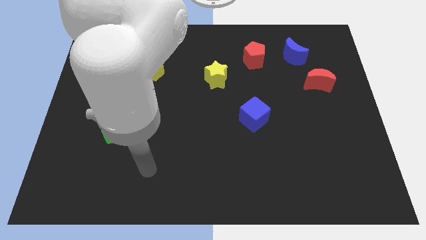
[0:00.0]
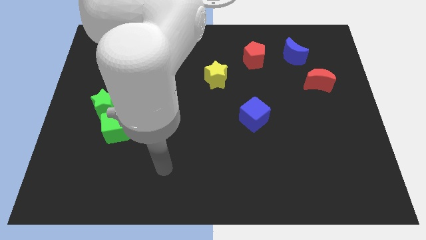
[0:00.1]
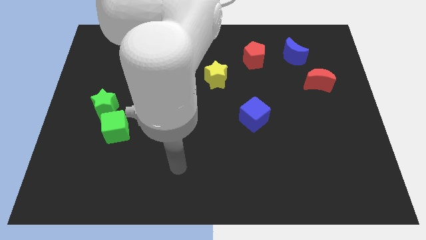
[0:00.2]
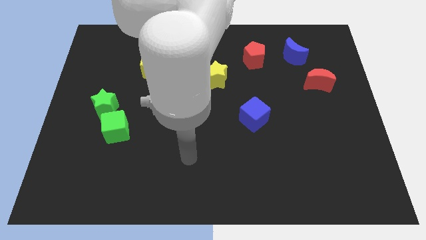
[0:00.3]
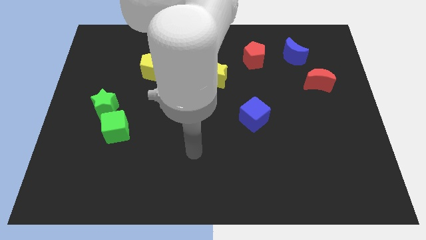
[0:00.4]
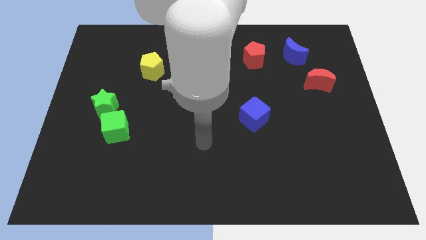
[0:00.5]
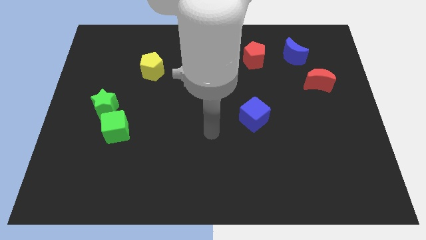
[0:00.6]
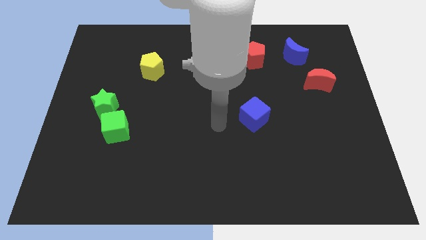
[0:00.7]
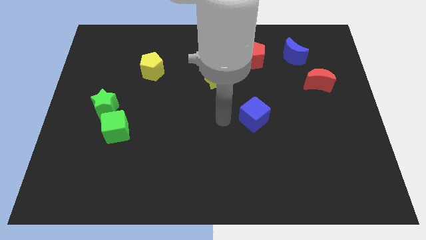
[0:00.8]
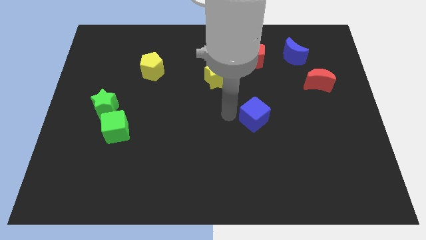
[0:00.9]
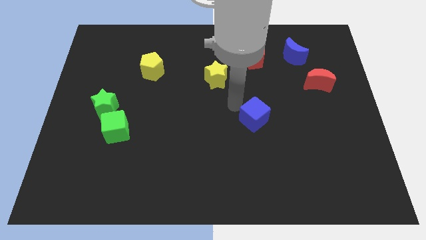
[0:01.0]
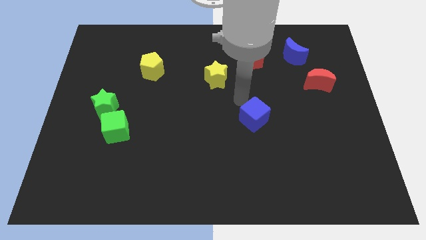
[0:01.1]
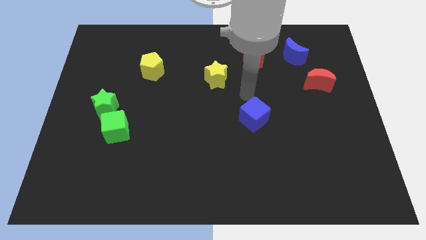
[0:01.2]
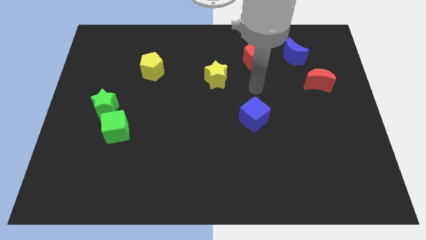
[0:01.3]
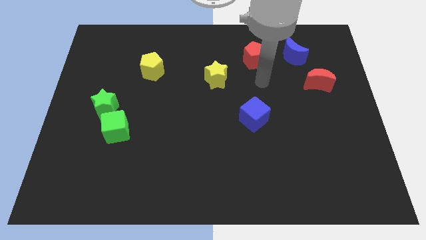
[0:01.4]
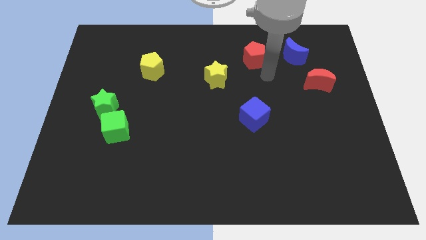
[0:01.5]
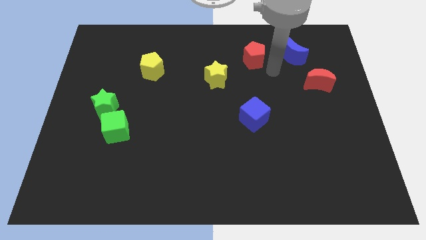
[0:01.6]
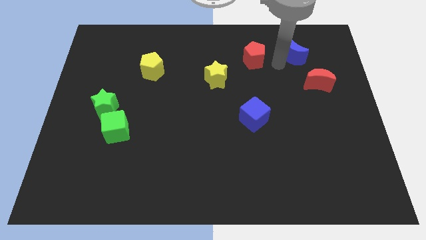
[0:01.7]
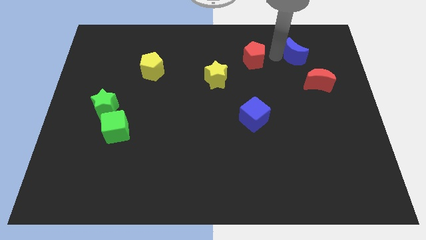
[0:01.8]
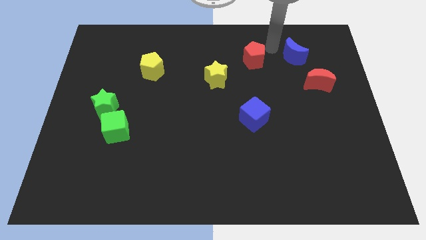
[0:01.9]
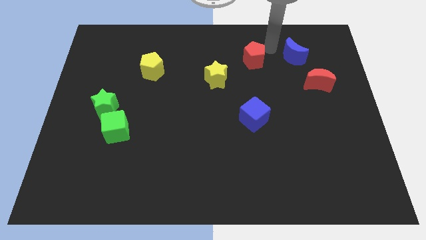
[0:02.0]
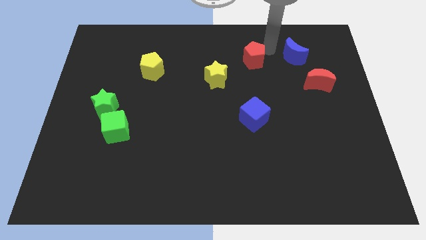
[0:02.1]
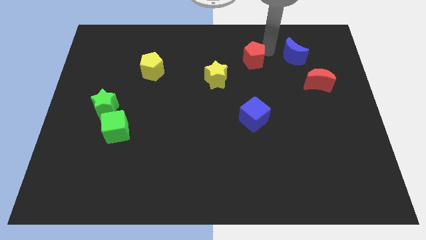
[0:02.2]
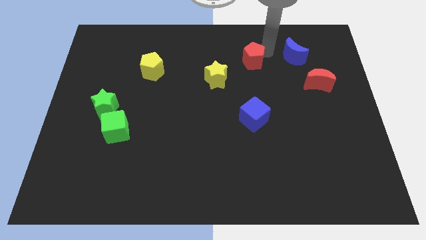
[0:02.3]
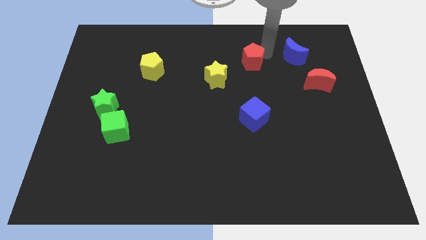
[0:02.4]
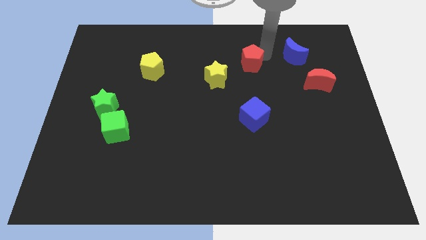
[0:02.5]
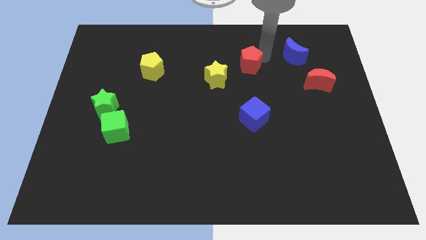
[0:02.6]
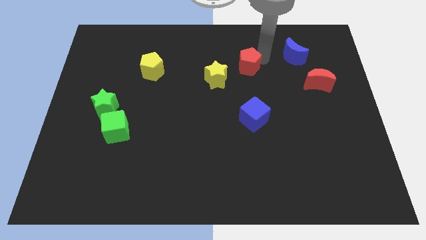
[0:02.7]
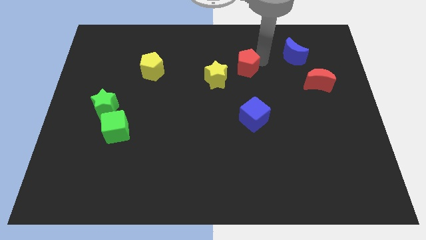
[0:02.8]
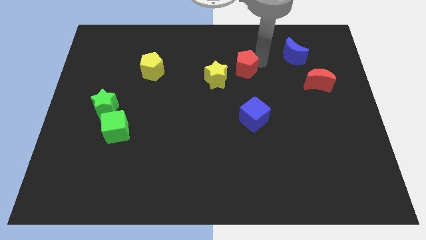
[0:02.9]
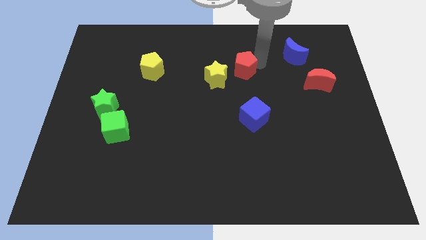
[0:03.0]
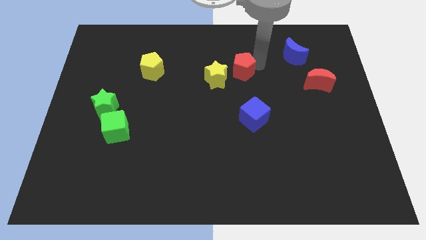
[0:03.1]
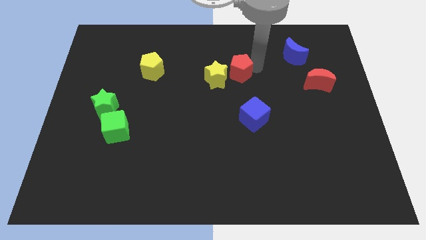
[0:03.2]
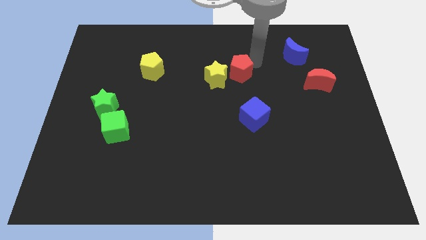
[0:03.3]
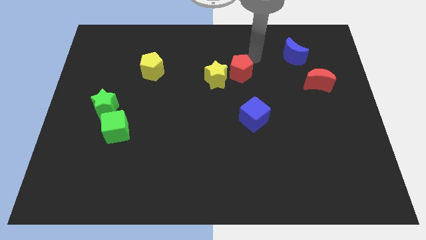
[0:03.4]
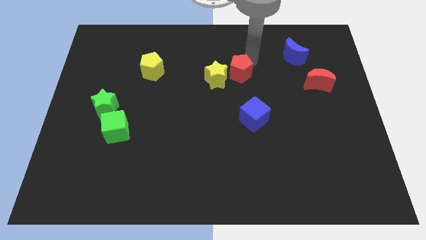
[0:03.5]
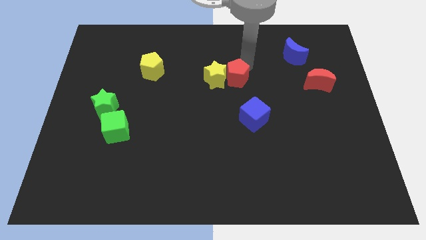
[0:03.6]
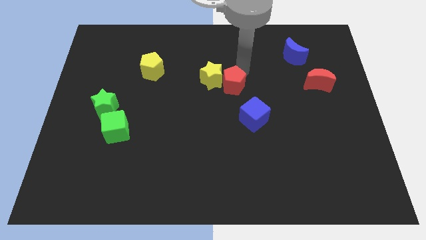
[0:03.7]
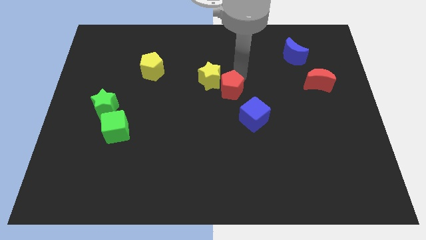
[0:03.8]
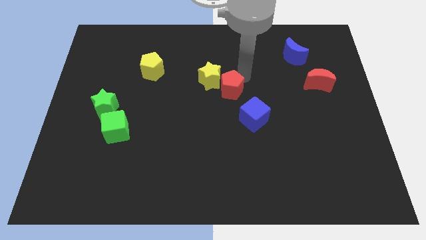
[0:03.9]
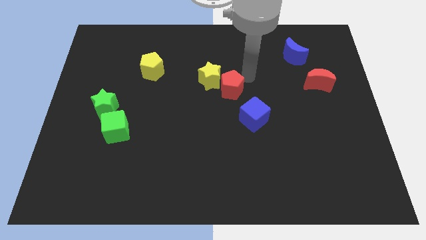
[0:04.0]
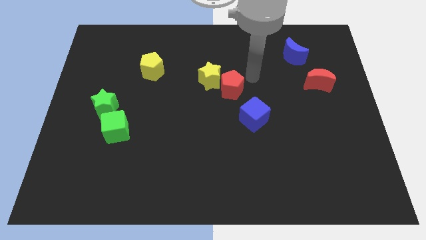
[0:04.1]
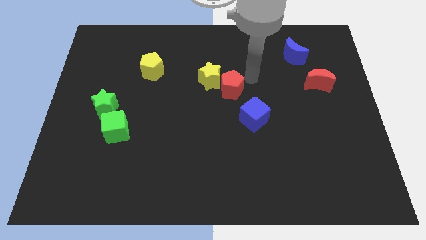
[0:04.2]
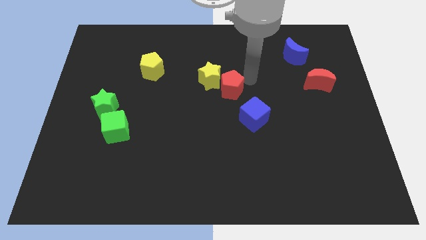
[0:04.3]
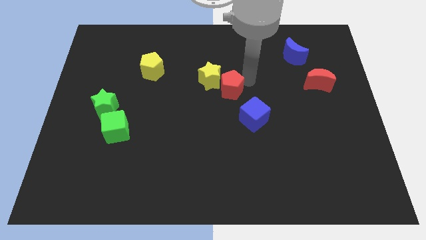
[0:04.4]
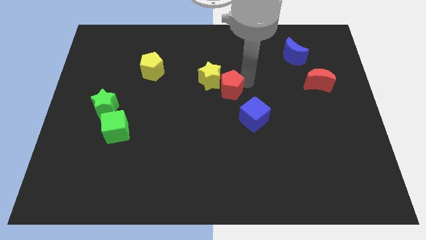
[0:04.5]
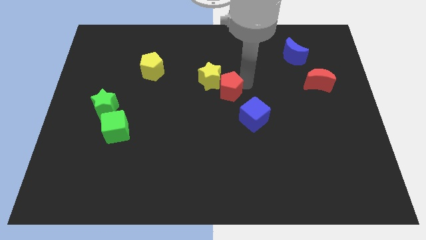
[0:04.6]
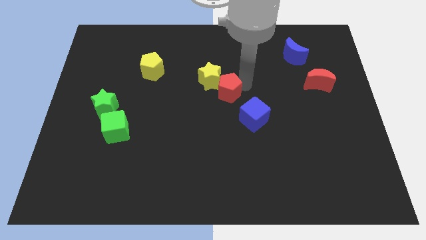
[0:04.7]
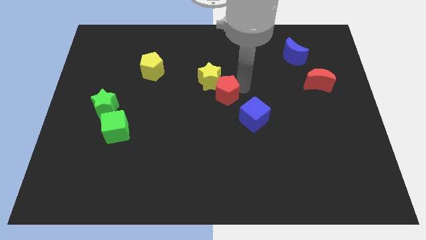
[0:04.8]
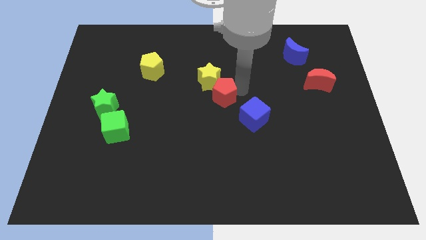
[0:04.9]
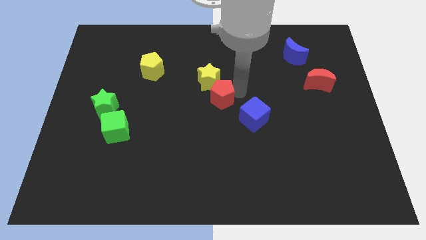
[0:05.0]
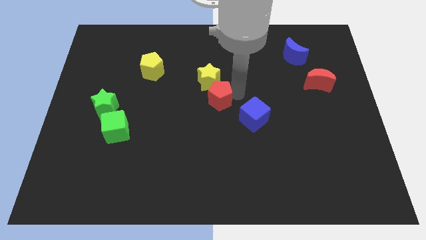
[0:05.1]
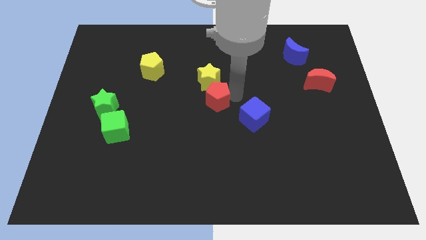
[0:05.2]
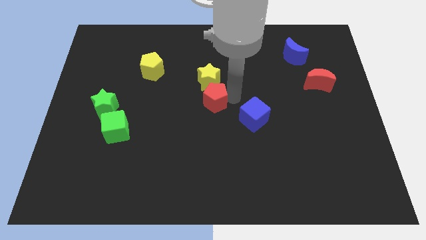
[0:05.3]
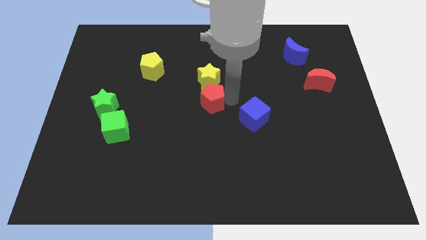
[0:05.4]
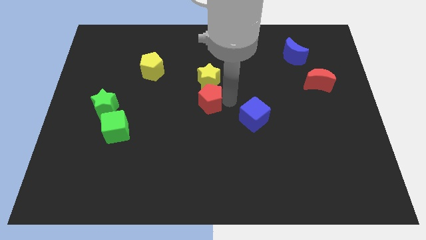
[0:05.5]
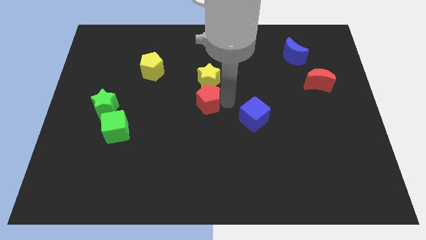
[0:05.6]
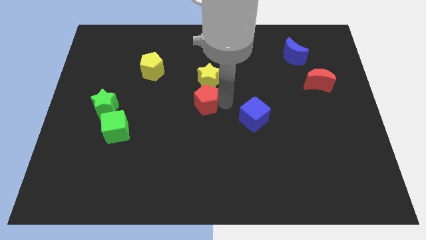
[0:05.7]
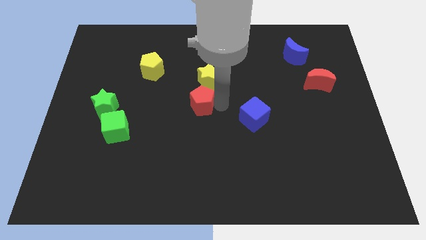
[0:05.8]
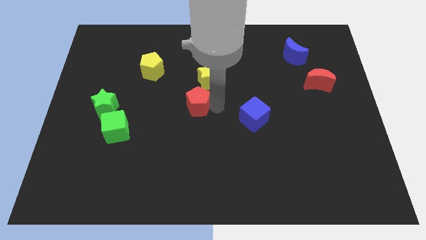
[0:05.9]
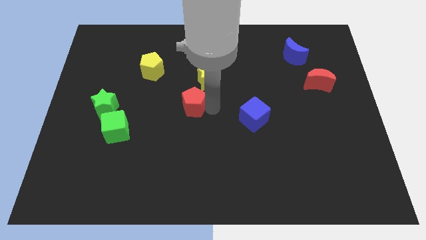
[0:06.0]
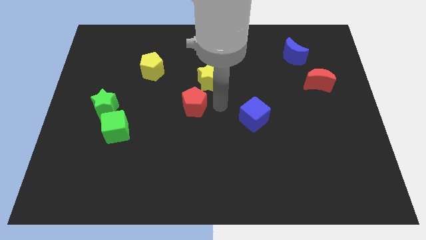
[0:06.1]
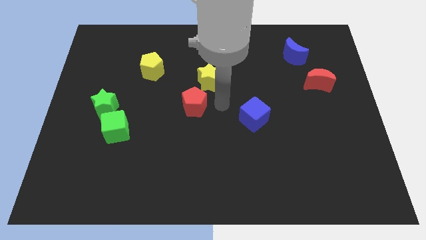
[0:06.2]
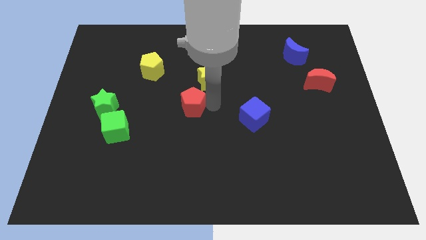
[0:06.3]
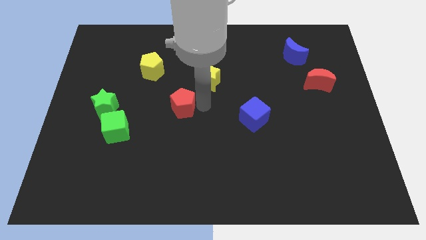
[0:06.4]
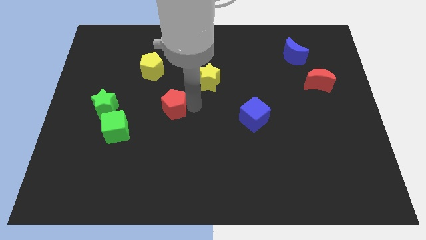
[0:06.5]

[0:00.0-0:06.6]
slide the red pentagon to the right side of the green star
